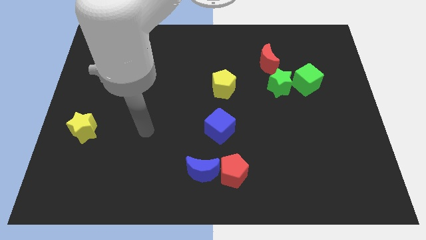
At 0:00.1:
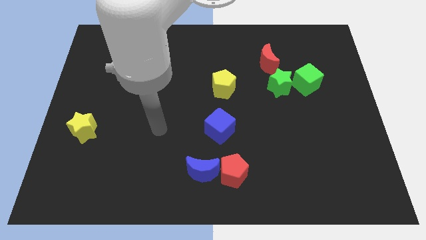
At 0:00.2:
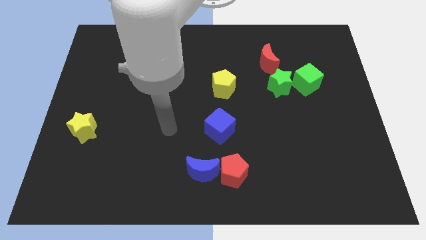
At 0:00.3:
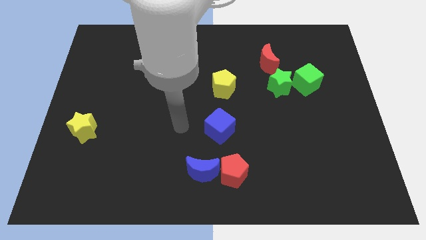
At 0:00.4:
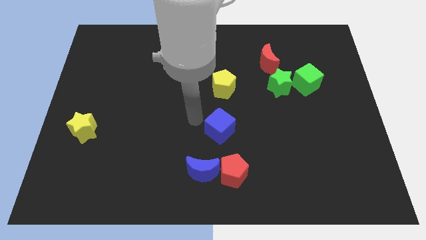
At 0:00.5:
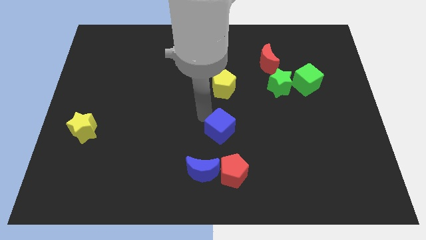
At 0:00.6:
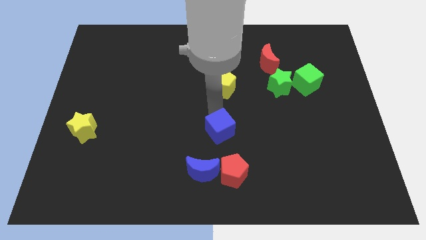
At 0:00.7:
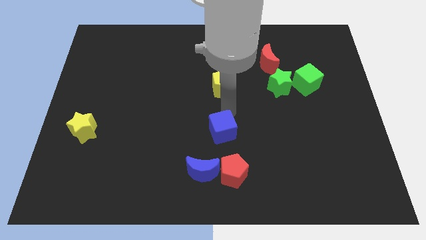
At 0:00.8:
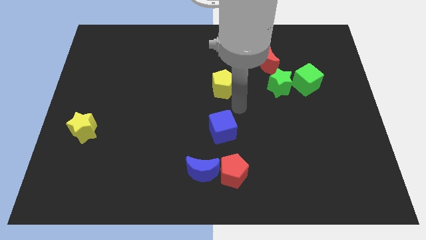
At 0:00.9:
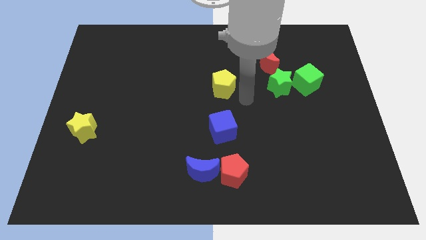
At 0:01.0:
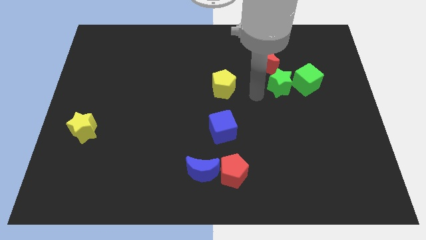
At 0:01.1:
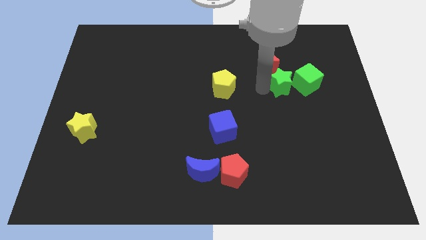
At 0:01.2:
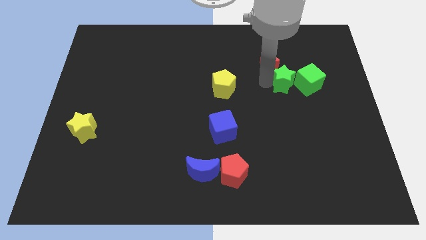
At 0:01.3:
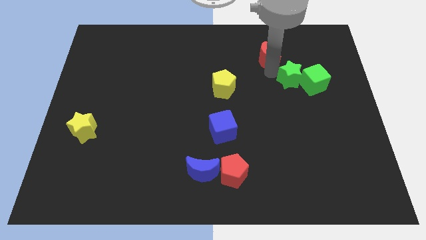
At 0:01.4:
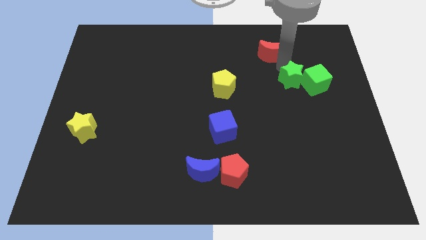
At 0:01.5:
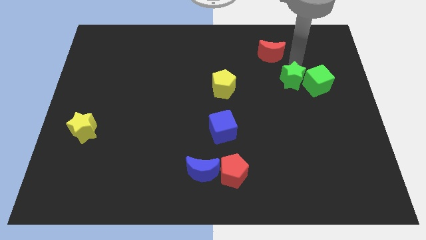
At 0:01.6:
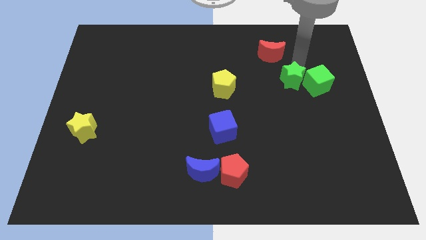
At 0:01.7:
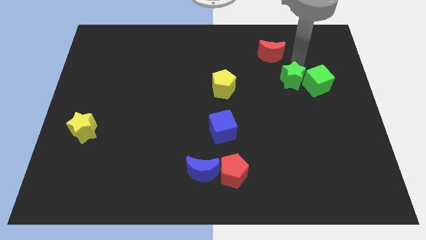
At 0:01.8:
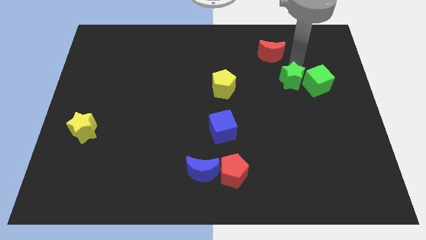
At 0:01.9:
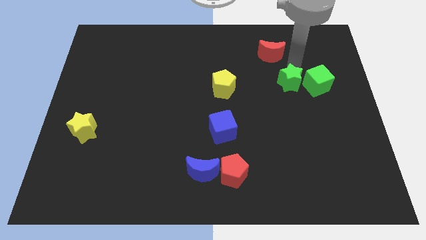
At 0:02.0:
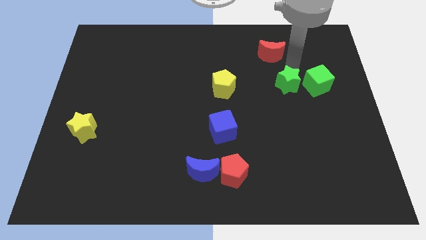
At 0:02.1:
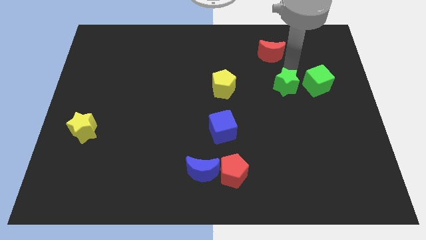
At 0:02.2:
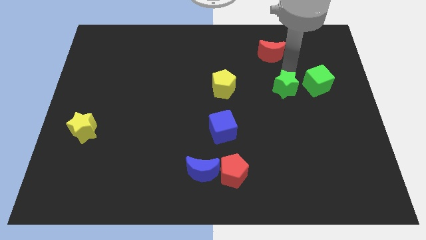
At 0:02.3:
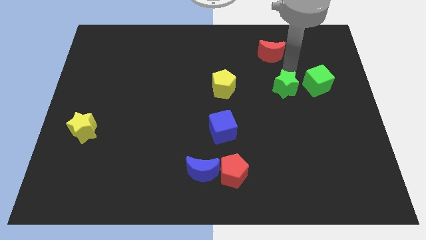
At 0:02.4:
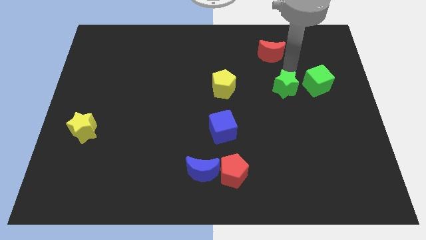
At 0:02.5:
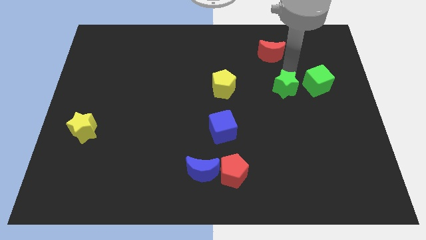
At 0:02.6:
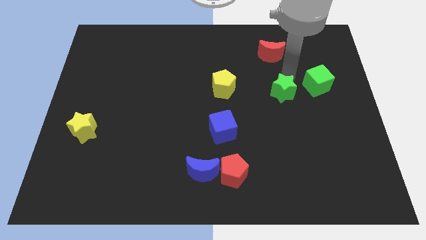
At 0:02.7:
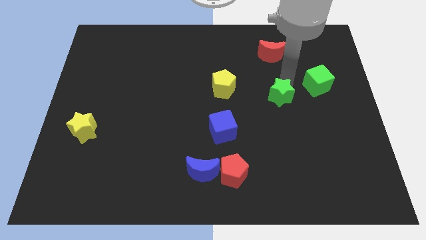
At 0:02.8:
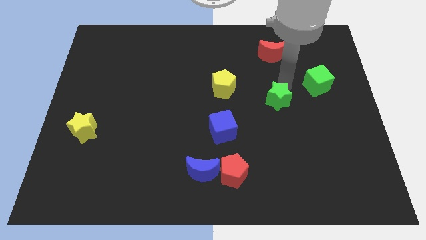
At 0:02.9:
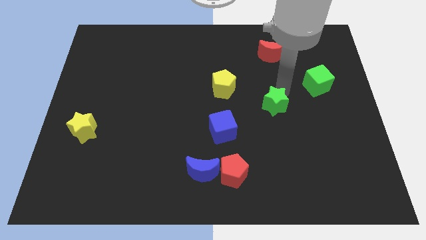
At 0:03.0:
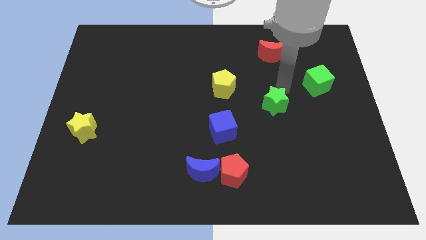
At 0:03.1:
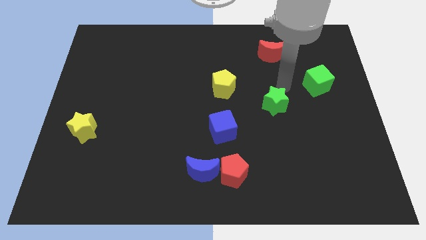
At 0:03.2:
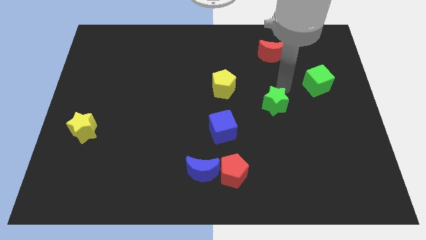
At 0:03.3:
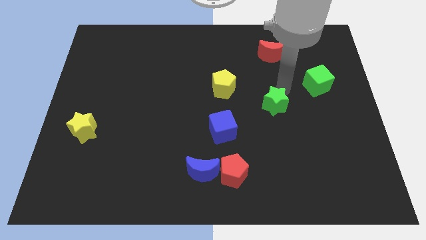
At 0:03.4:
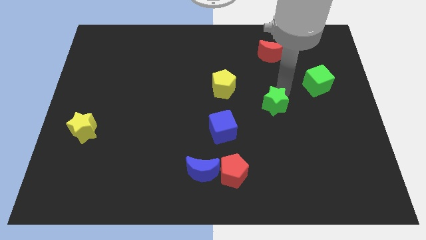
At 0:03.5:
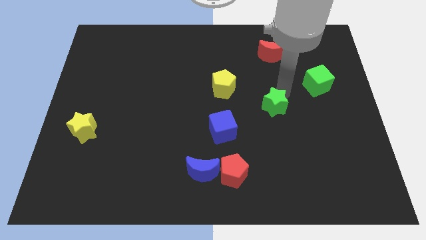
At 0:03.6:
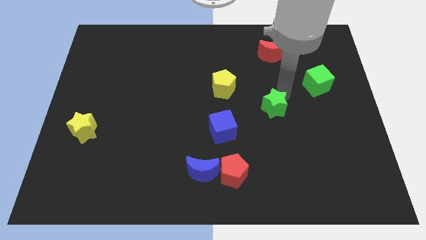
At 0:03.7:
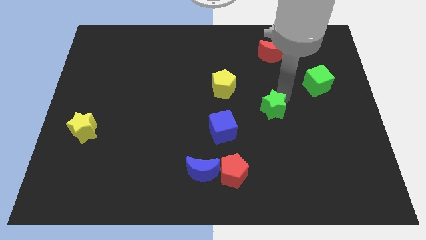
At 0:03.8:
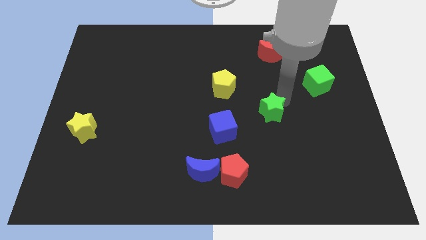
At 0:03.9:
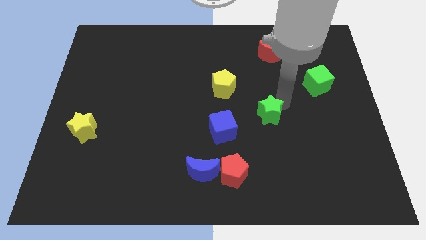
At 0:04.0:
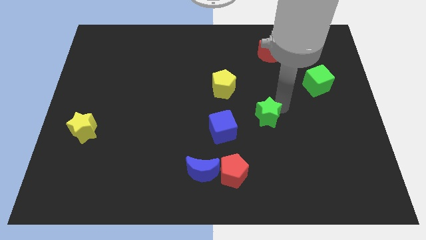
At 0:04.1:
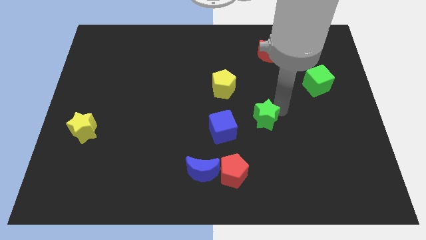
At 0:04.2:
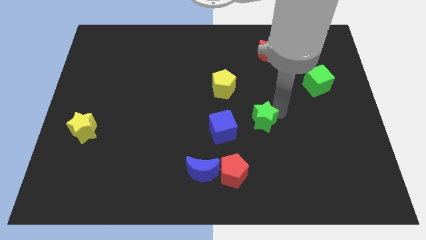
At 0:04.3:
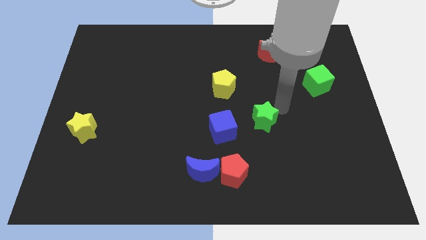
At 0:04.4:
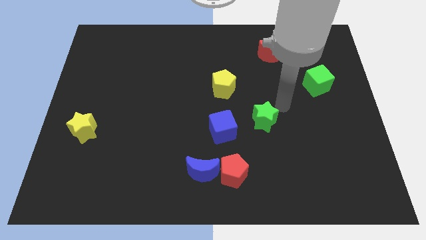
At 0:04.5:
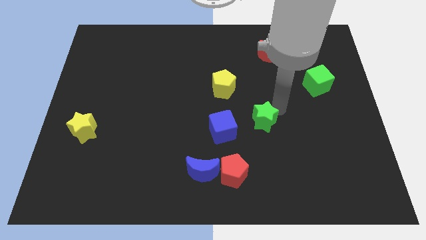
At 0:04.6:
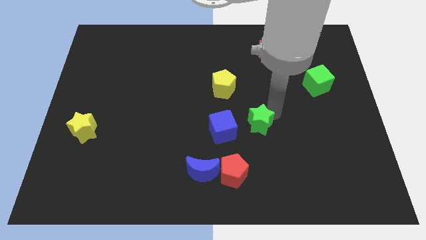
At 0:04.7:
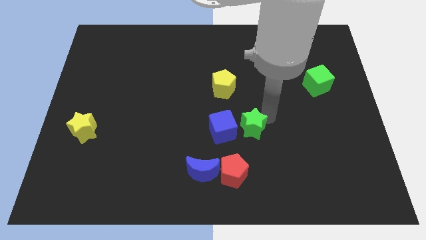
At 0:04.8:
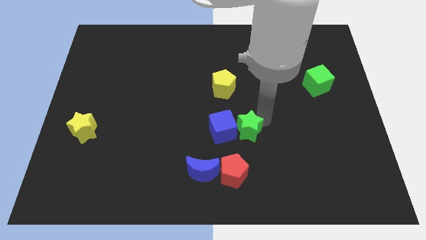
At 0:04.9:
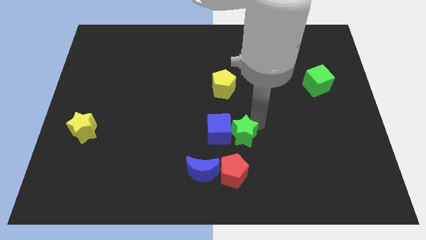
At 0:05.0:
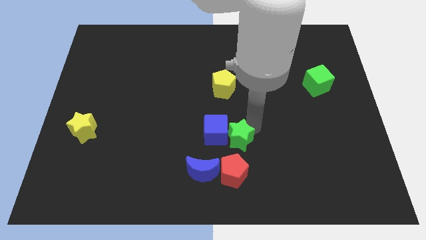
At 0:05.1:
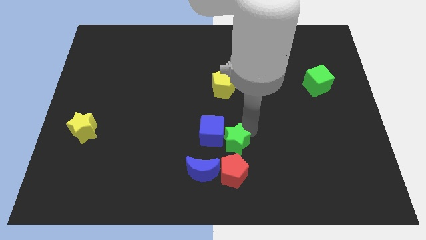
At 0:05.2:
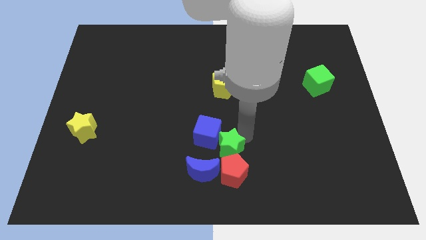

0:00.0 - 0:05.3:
push the green star to the top left of the red pentagon
